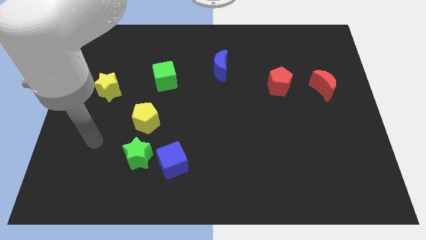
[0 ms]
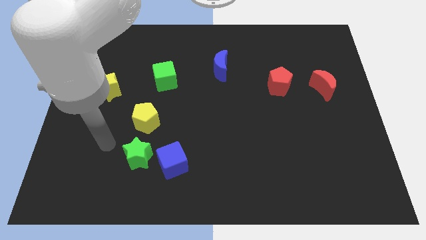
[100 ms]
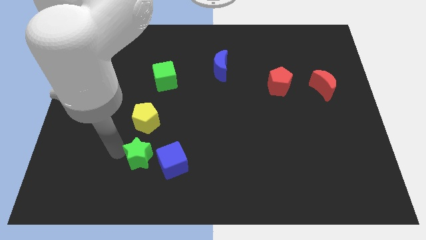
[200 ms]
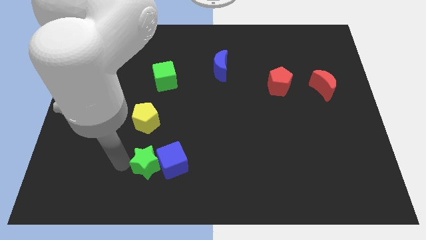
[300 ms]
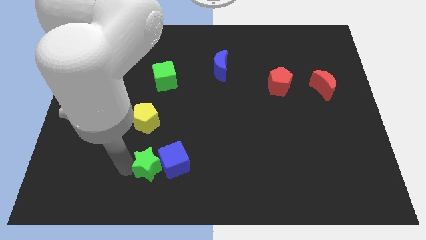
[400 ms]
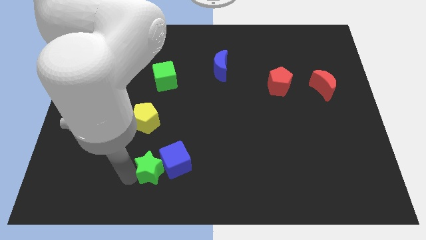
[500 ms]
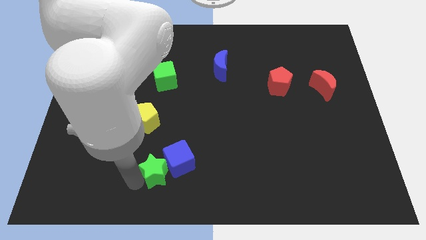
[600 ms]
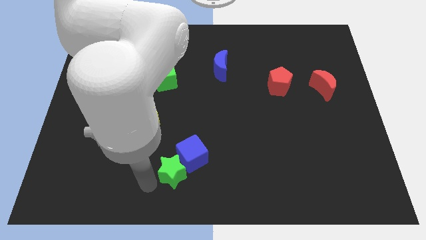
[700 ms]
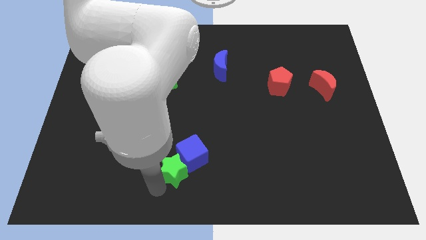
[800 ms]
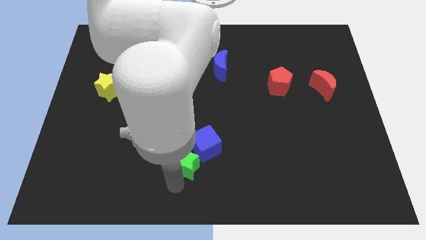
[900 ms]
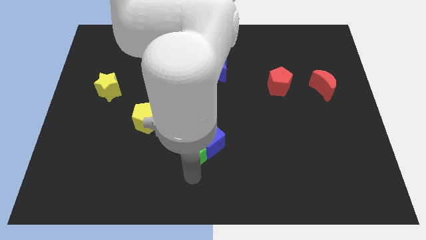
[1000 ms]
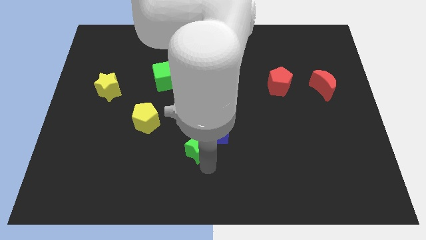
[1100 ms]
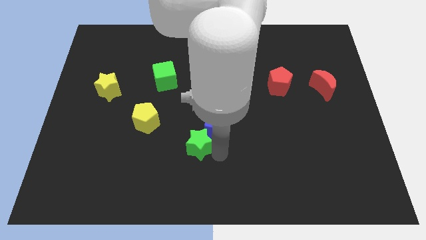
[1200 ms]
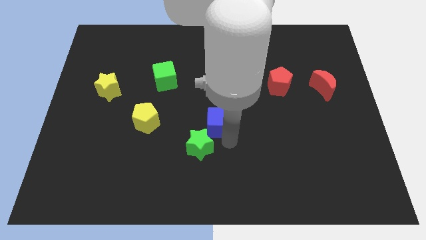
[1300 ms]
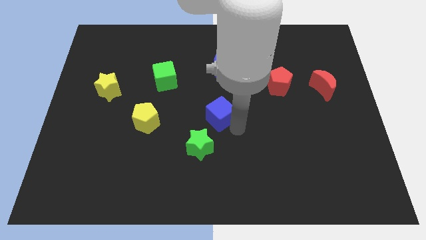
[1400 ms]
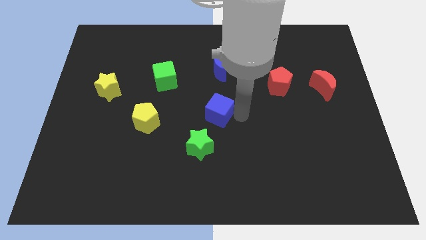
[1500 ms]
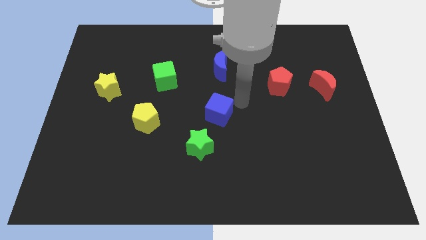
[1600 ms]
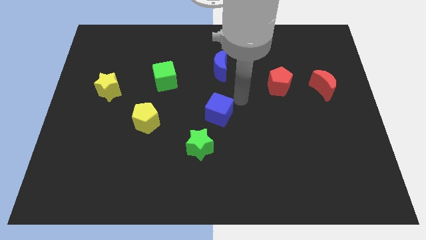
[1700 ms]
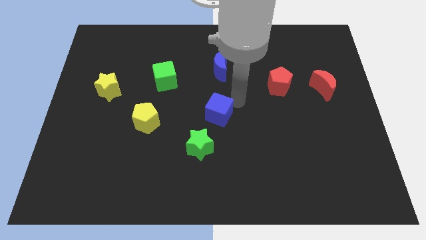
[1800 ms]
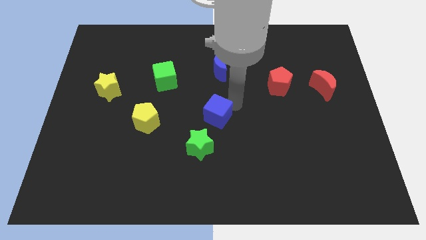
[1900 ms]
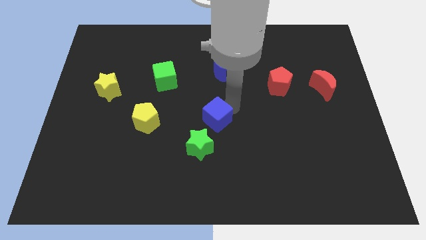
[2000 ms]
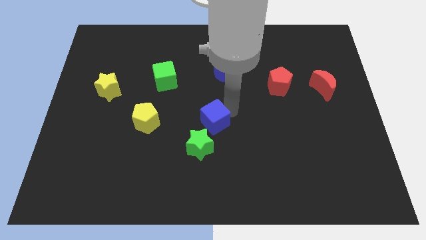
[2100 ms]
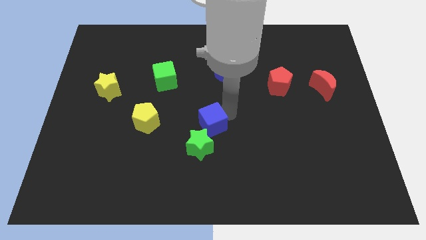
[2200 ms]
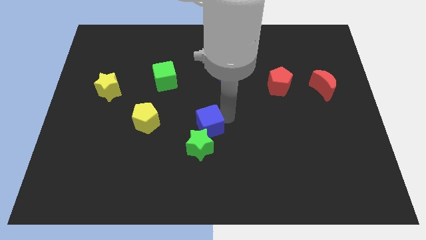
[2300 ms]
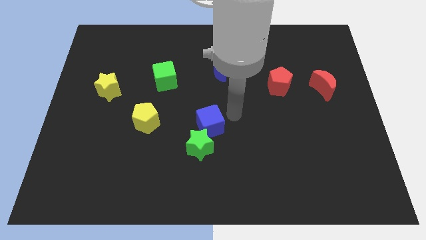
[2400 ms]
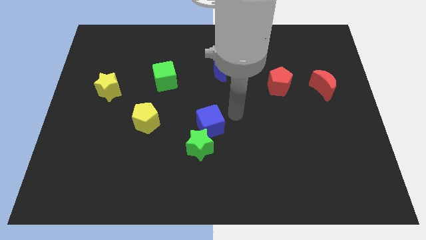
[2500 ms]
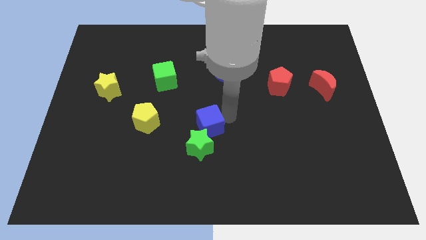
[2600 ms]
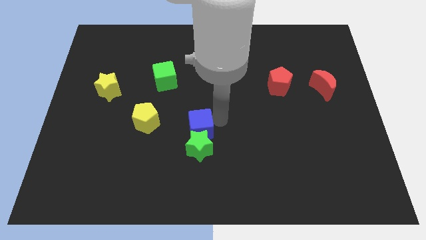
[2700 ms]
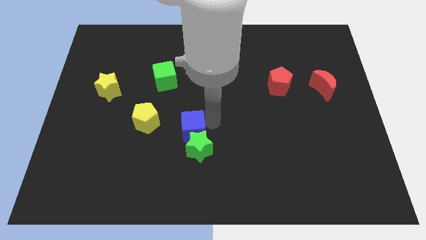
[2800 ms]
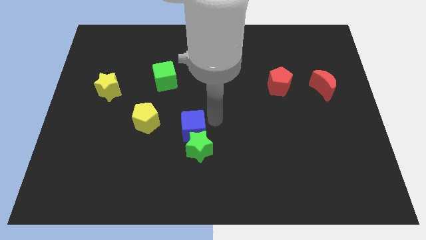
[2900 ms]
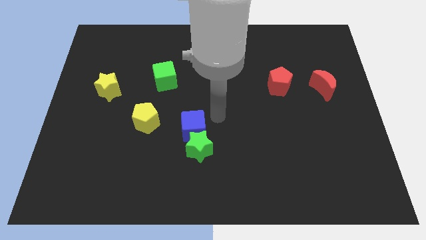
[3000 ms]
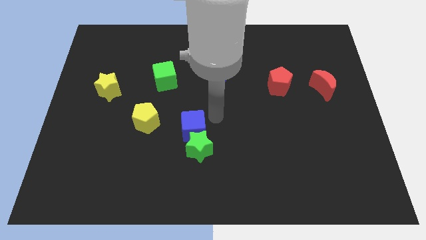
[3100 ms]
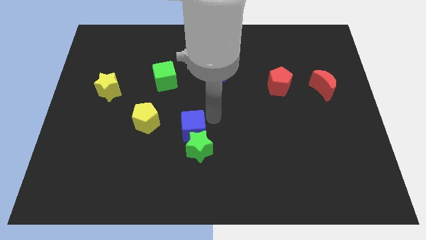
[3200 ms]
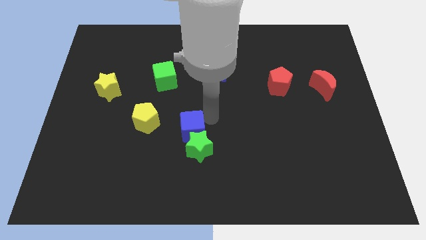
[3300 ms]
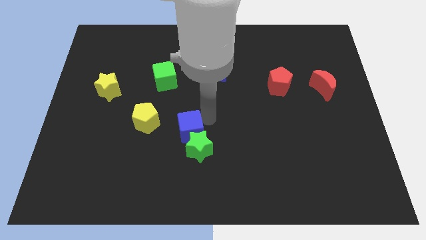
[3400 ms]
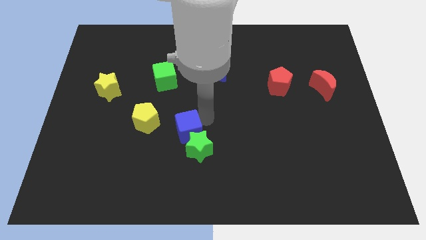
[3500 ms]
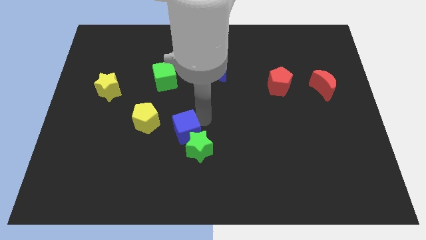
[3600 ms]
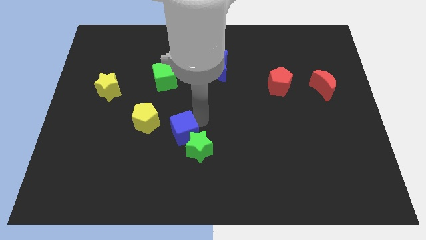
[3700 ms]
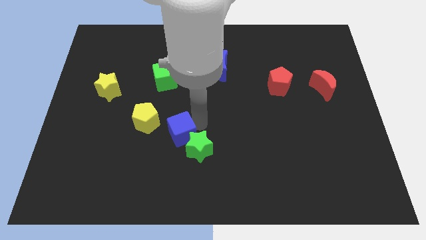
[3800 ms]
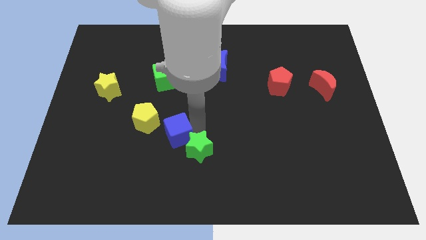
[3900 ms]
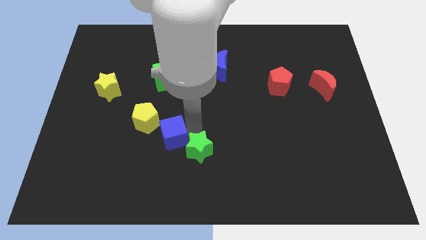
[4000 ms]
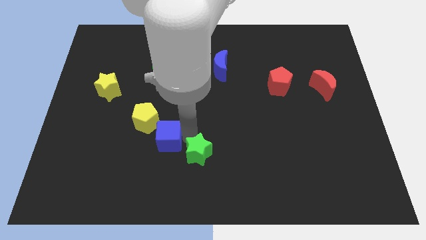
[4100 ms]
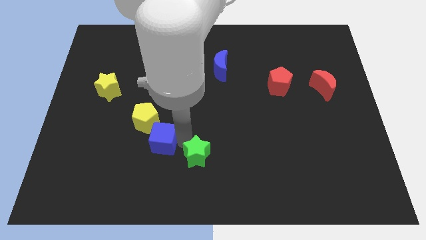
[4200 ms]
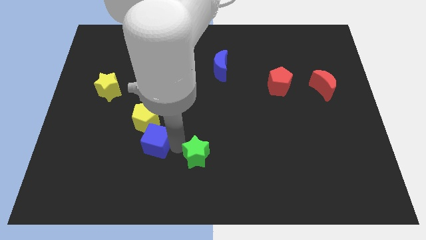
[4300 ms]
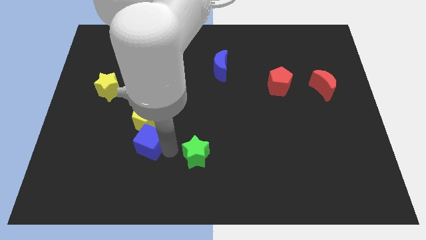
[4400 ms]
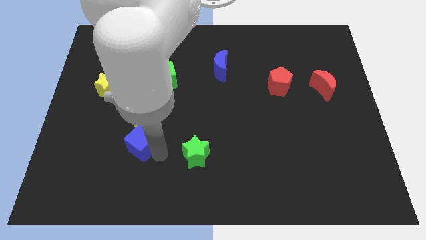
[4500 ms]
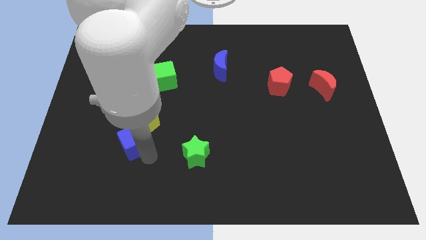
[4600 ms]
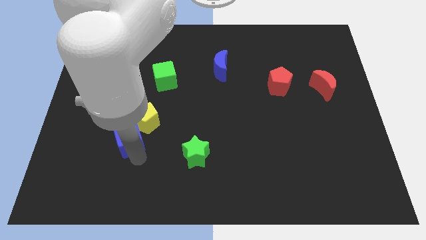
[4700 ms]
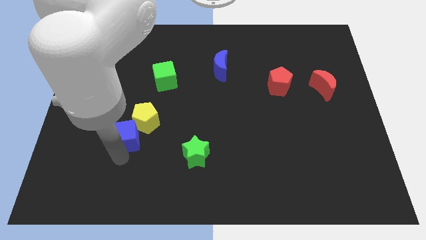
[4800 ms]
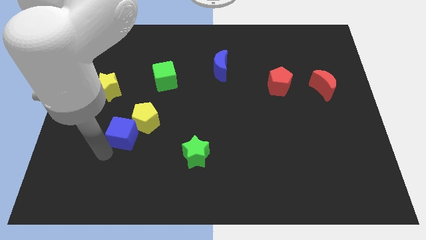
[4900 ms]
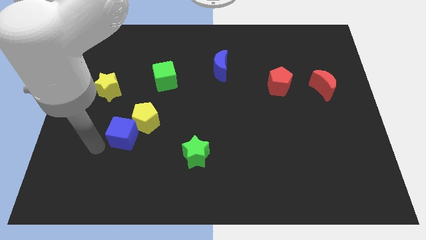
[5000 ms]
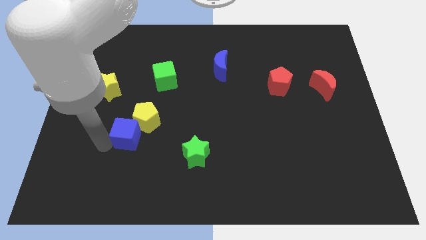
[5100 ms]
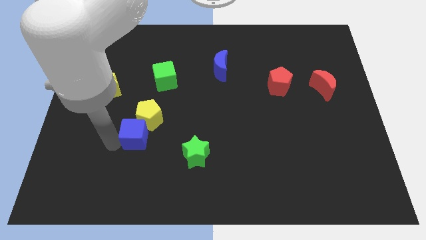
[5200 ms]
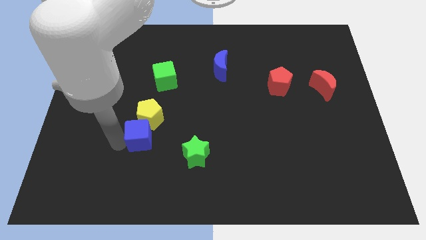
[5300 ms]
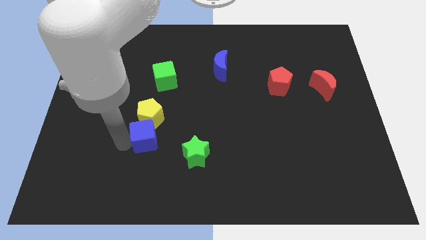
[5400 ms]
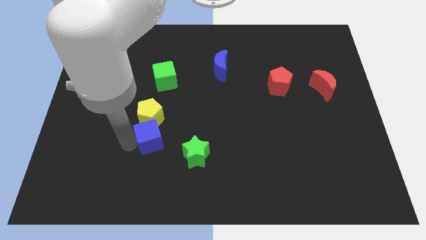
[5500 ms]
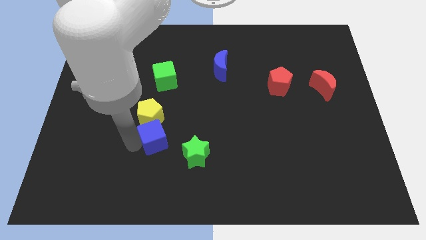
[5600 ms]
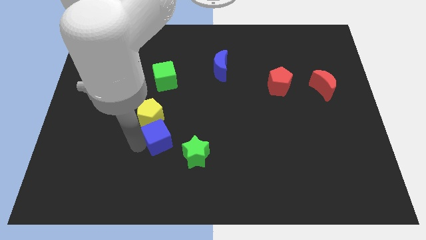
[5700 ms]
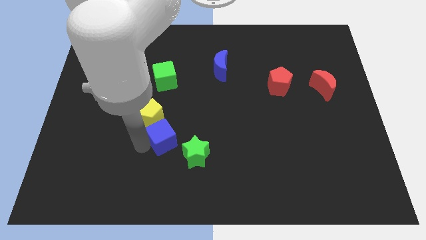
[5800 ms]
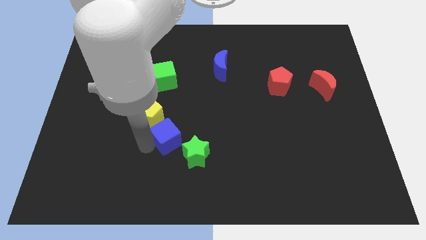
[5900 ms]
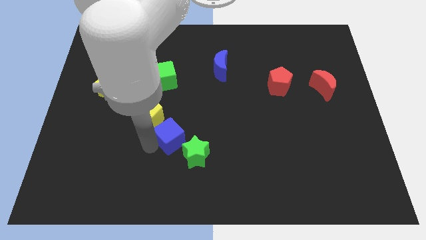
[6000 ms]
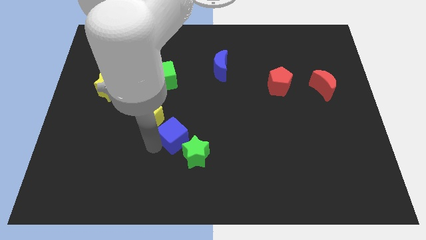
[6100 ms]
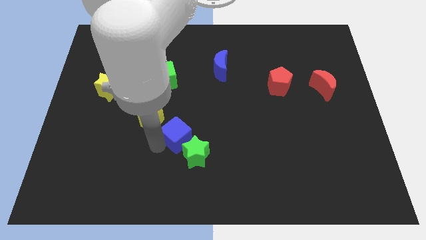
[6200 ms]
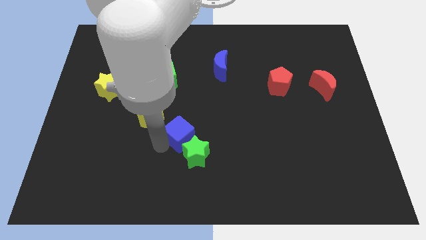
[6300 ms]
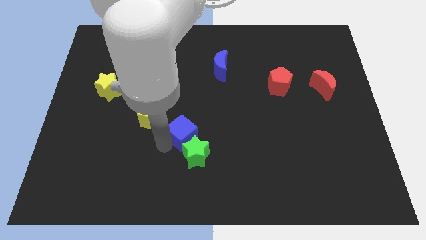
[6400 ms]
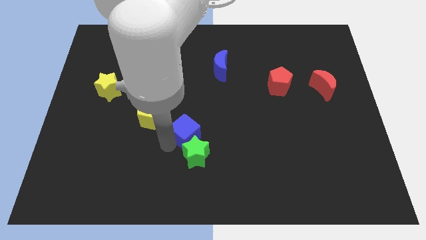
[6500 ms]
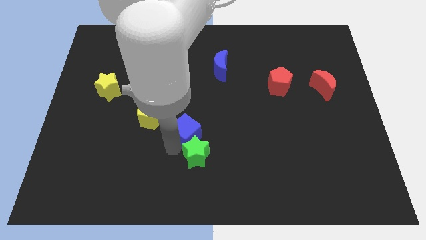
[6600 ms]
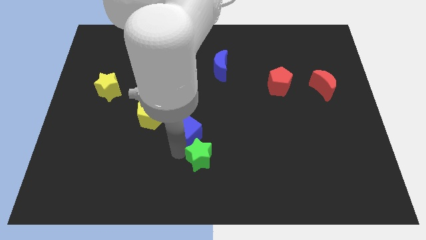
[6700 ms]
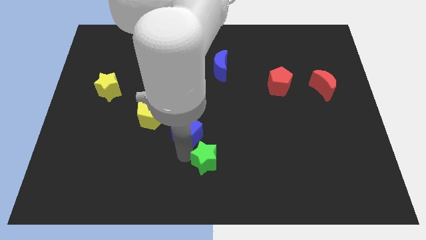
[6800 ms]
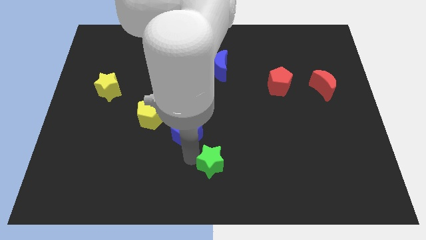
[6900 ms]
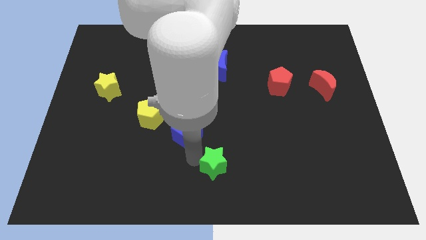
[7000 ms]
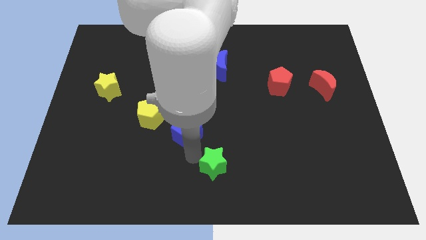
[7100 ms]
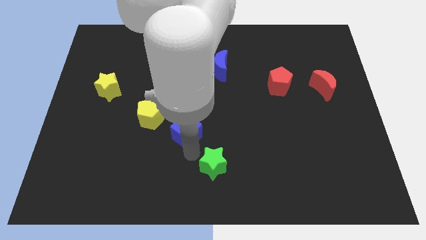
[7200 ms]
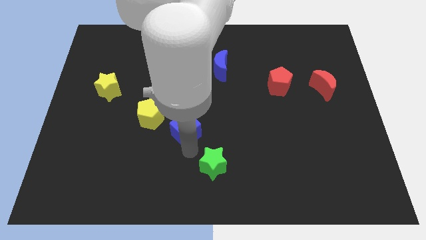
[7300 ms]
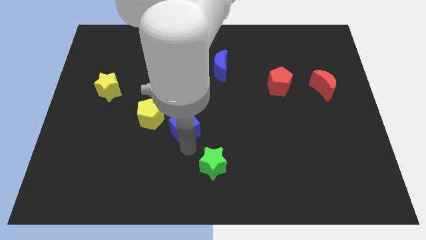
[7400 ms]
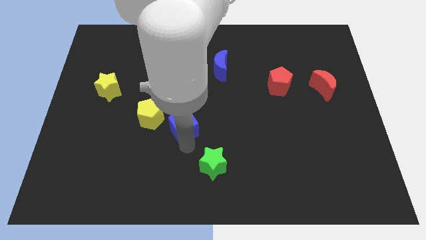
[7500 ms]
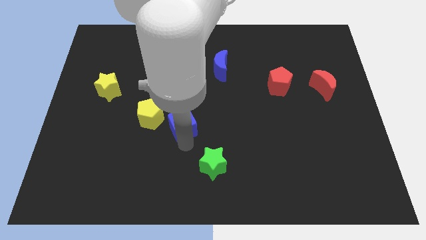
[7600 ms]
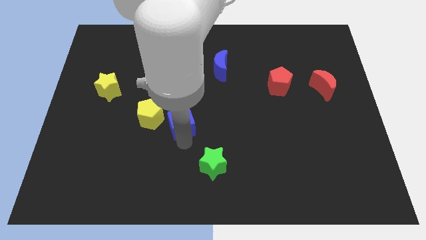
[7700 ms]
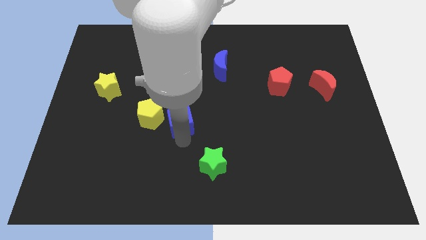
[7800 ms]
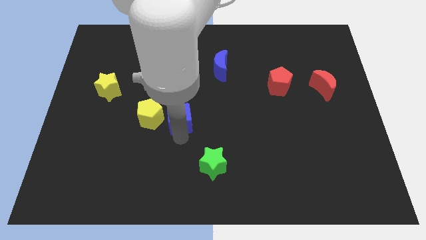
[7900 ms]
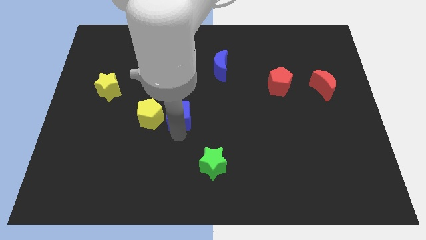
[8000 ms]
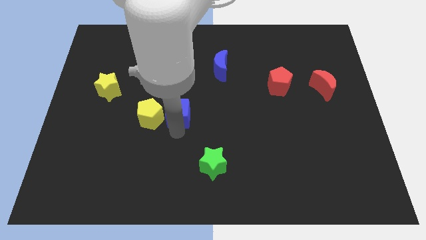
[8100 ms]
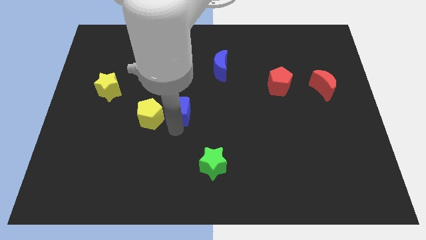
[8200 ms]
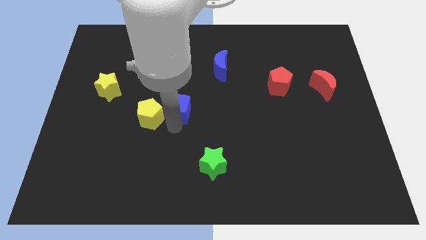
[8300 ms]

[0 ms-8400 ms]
slide the blue cube to the bottom right side of the green cube
